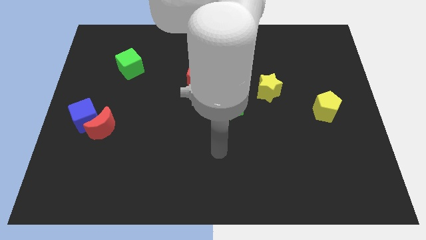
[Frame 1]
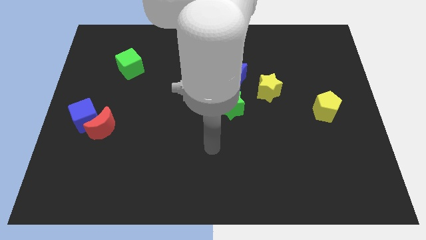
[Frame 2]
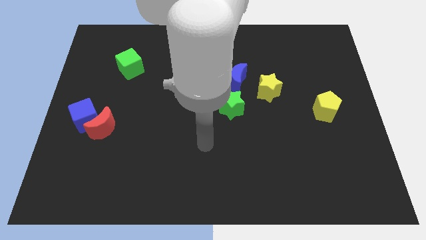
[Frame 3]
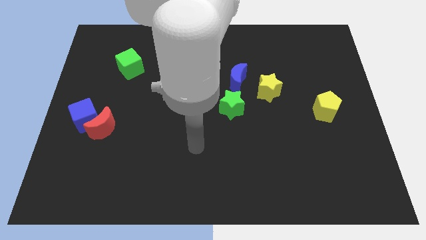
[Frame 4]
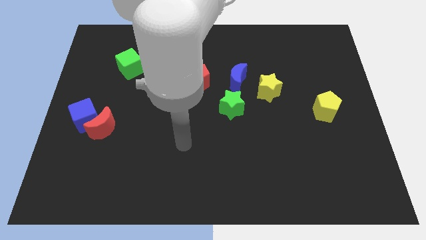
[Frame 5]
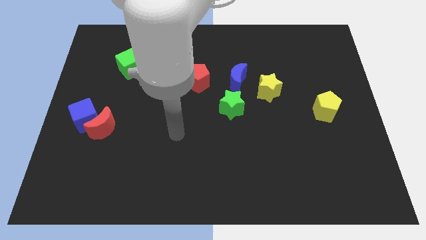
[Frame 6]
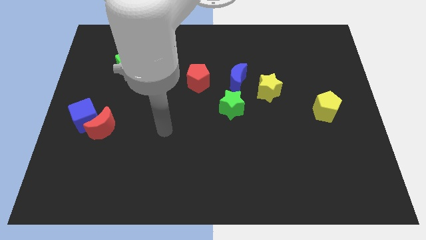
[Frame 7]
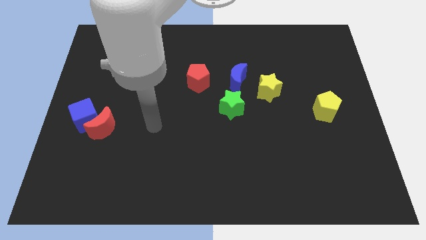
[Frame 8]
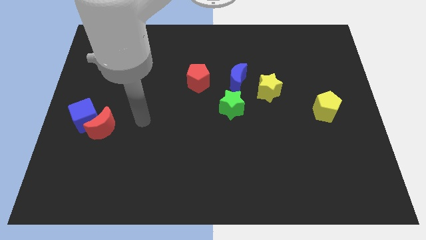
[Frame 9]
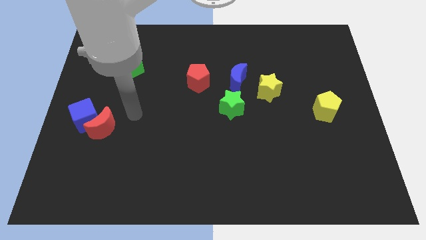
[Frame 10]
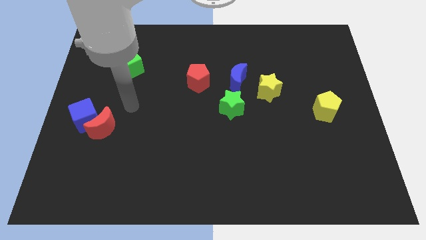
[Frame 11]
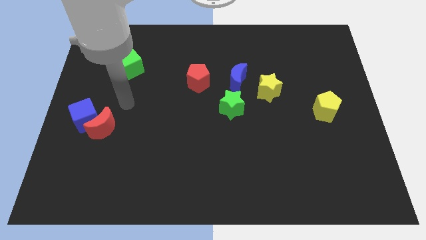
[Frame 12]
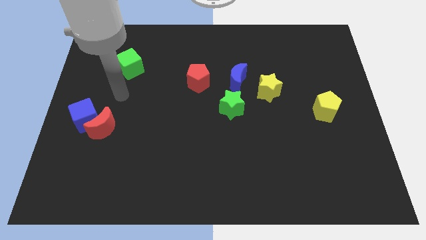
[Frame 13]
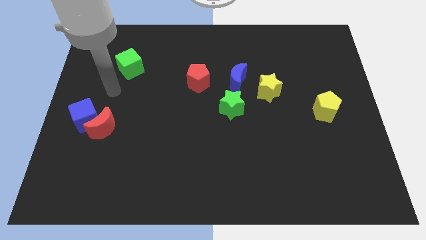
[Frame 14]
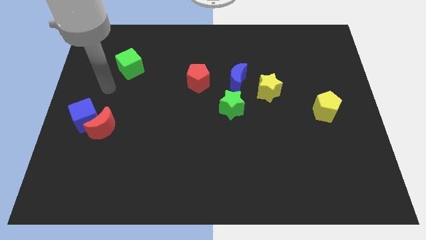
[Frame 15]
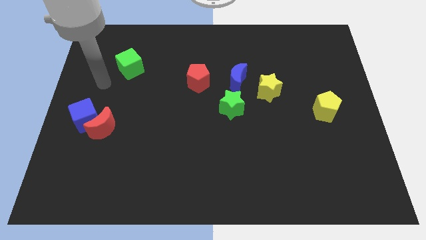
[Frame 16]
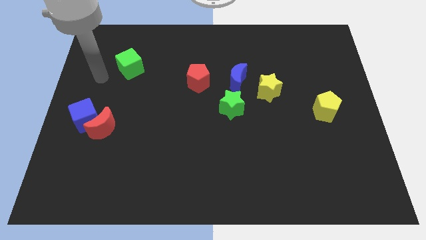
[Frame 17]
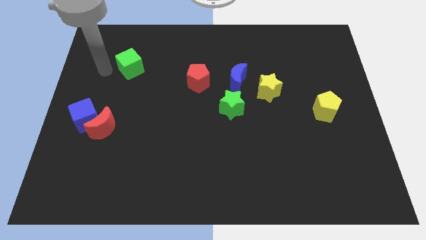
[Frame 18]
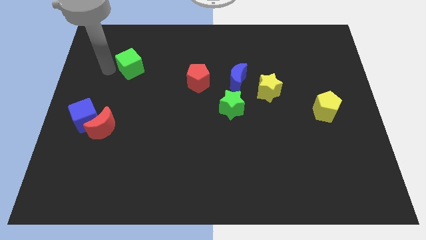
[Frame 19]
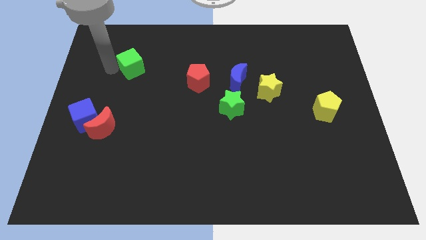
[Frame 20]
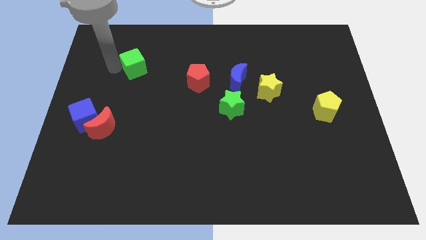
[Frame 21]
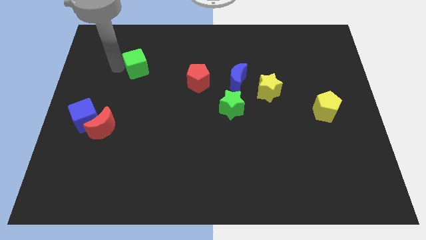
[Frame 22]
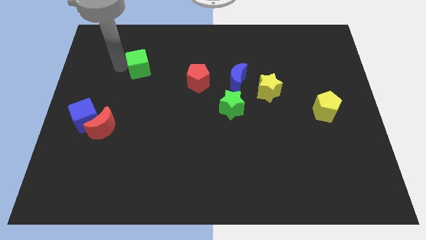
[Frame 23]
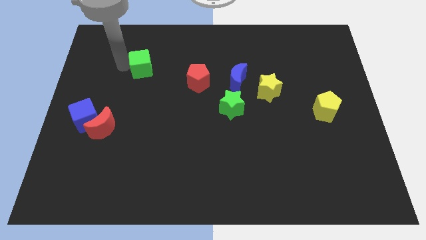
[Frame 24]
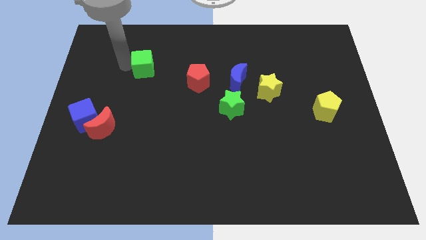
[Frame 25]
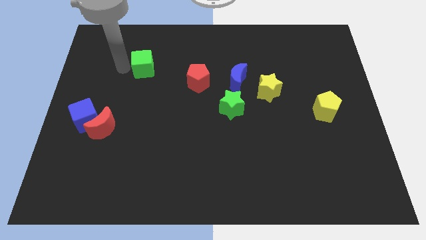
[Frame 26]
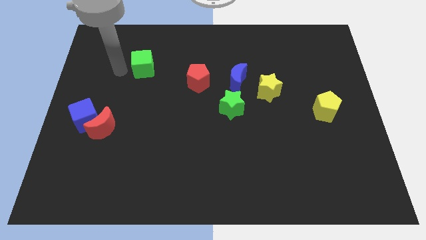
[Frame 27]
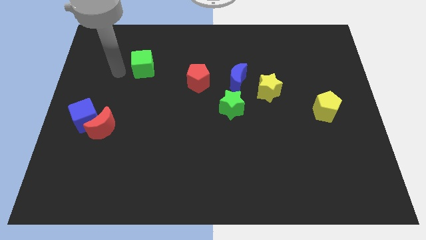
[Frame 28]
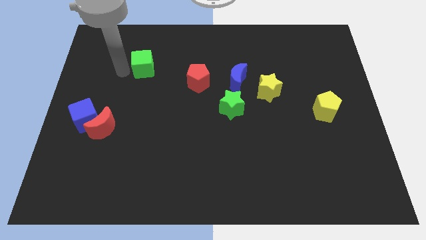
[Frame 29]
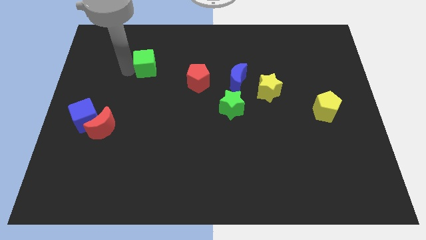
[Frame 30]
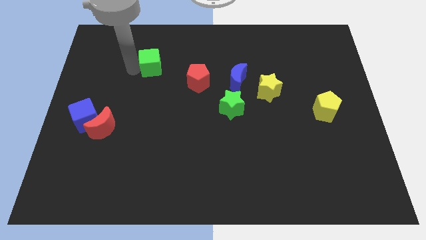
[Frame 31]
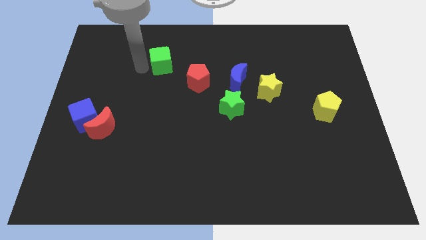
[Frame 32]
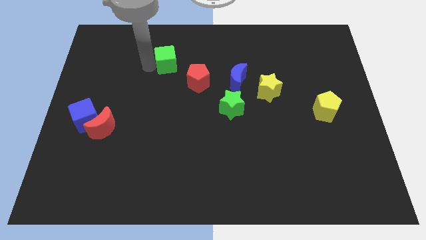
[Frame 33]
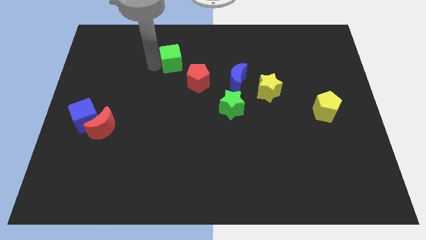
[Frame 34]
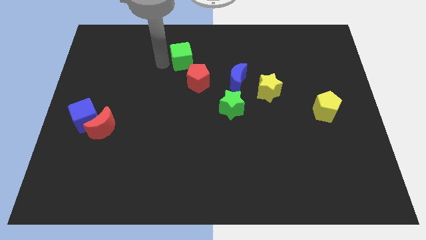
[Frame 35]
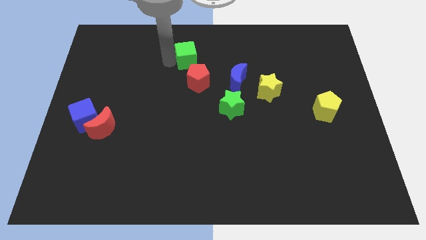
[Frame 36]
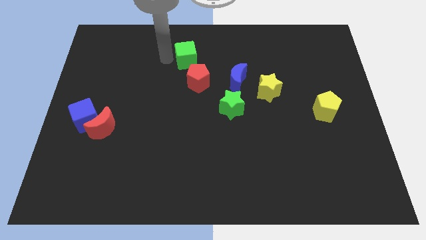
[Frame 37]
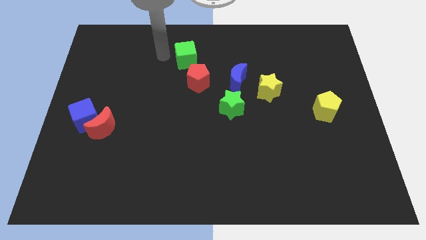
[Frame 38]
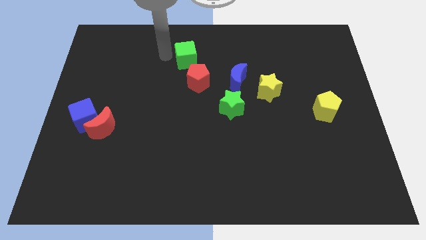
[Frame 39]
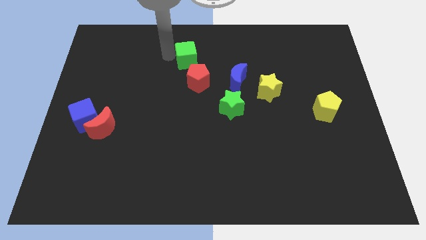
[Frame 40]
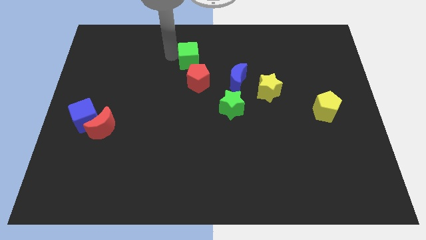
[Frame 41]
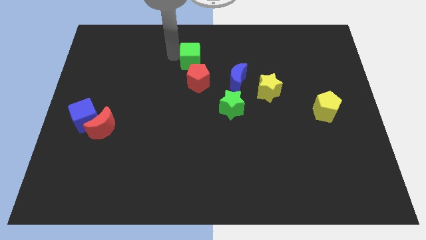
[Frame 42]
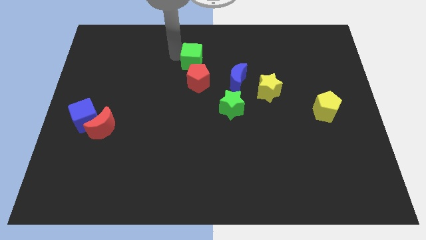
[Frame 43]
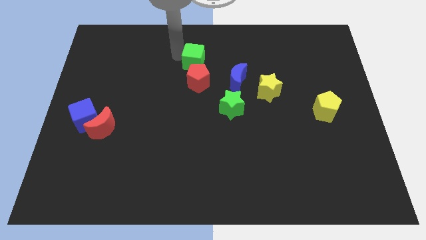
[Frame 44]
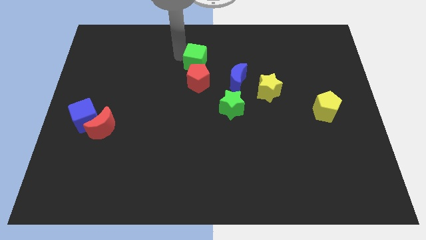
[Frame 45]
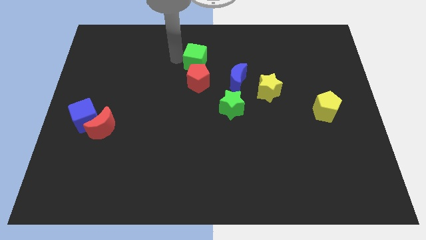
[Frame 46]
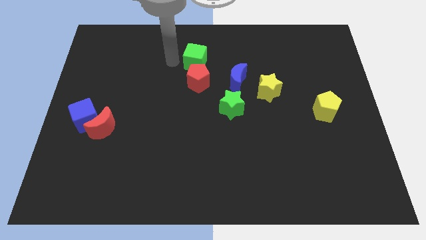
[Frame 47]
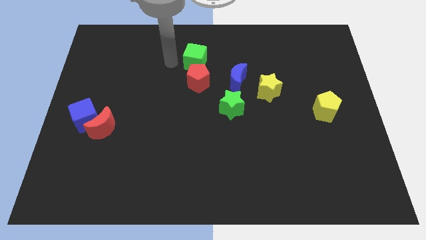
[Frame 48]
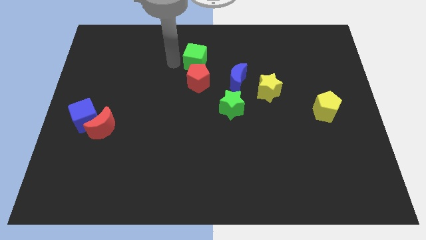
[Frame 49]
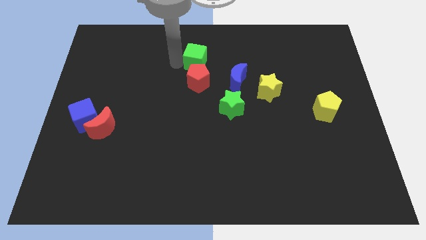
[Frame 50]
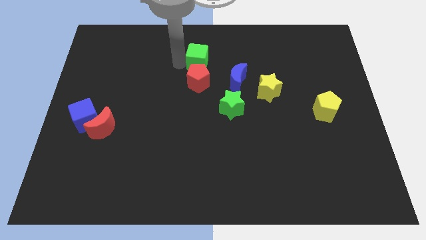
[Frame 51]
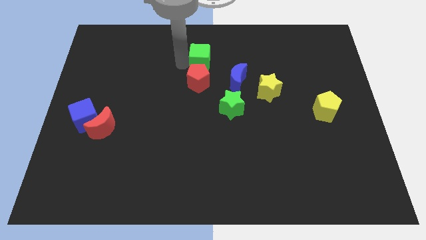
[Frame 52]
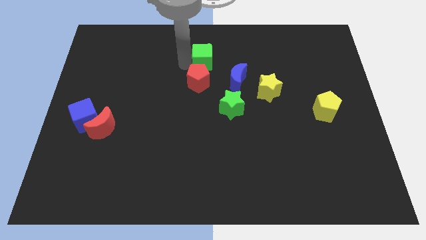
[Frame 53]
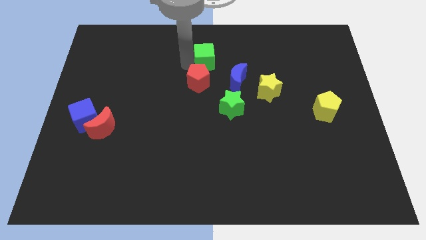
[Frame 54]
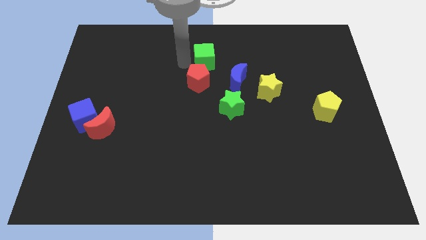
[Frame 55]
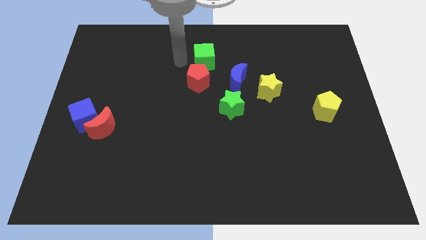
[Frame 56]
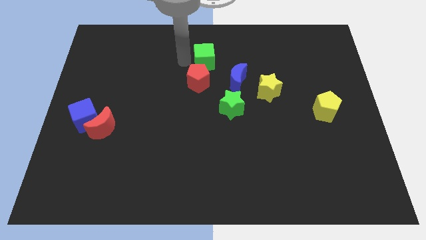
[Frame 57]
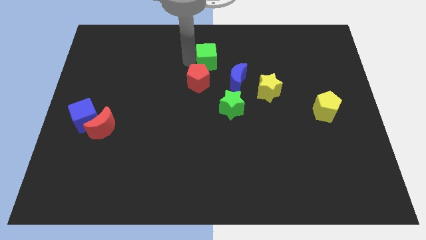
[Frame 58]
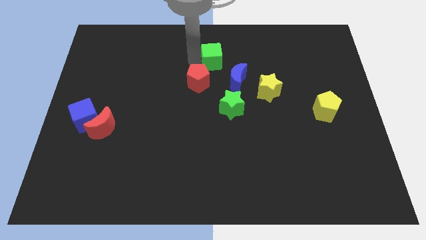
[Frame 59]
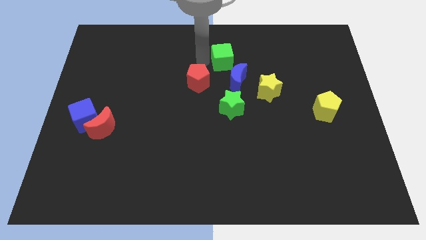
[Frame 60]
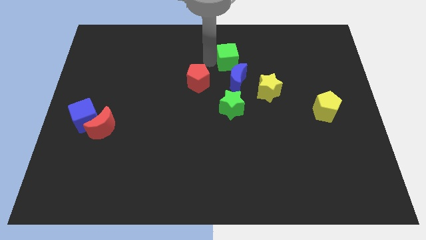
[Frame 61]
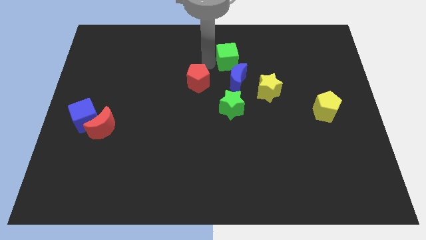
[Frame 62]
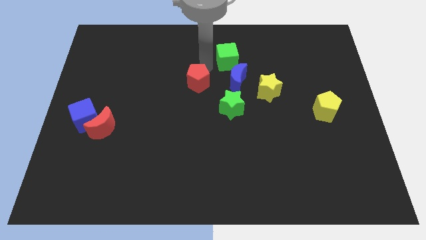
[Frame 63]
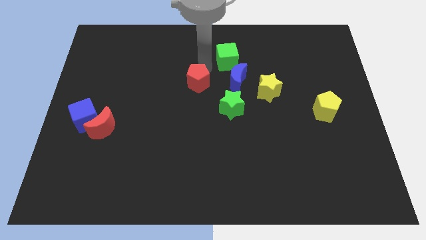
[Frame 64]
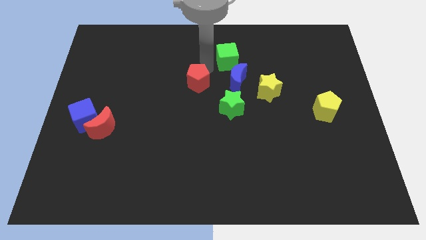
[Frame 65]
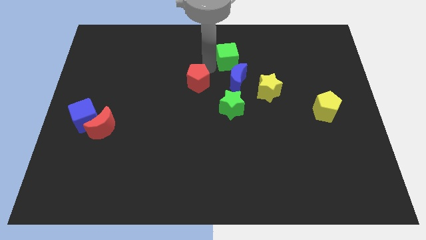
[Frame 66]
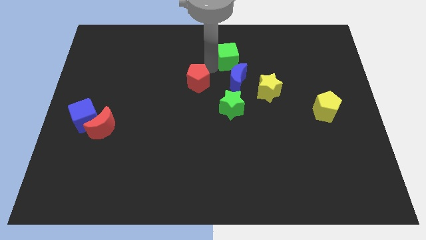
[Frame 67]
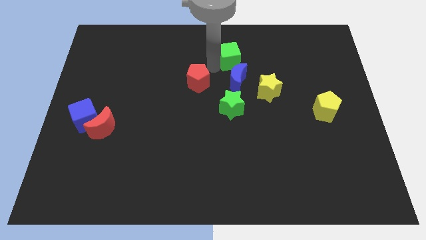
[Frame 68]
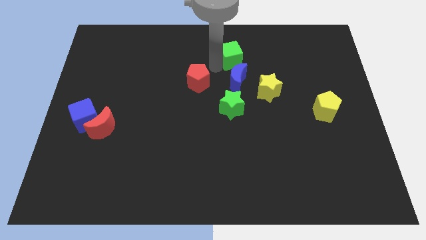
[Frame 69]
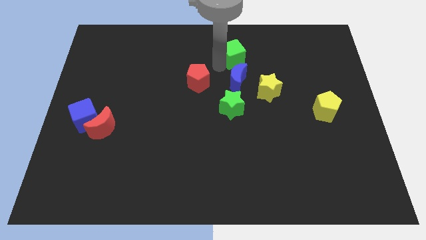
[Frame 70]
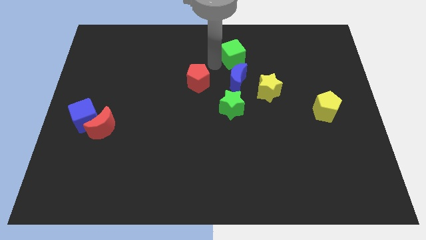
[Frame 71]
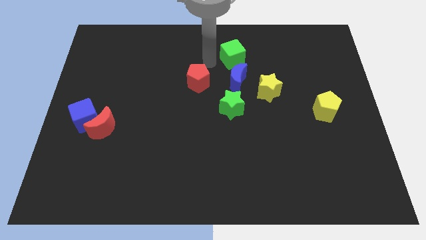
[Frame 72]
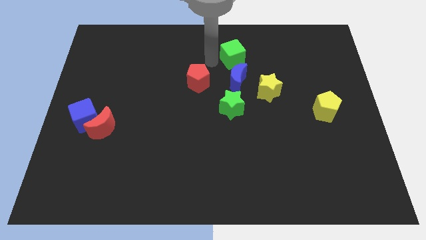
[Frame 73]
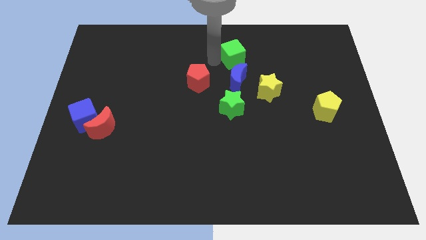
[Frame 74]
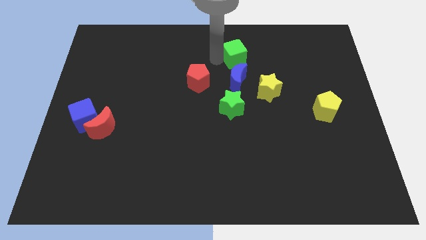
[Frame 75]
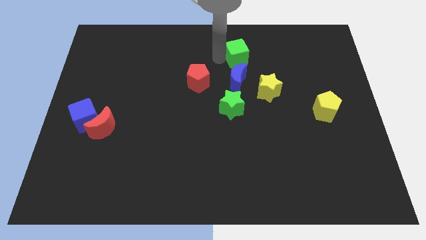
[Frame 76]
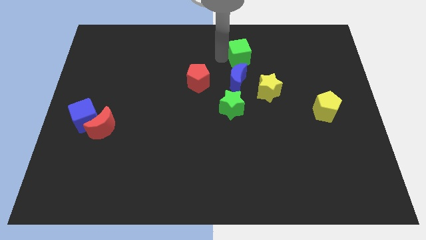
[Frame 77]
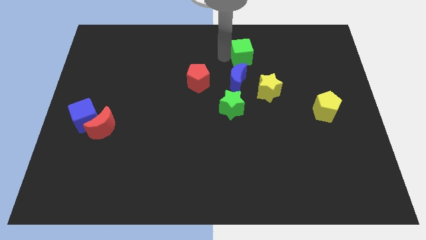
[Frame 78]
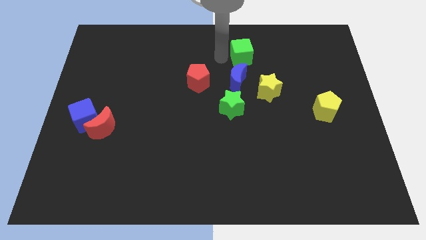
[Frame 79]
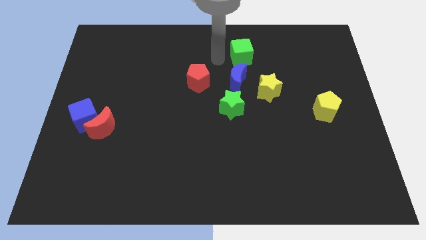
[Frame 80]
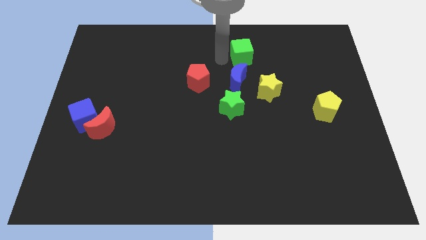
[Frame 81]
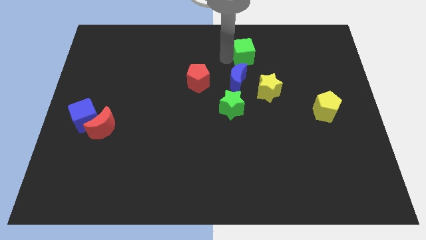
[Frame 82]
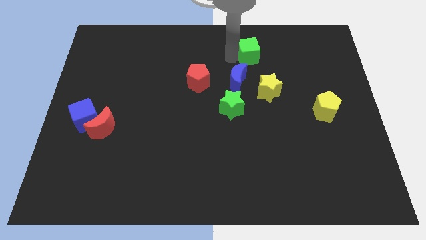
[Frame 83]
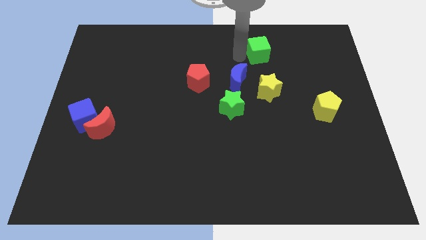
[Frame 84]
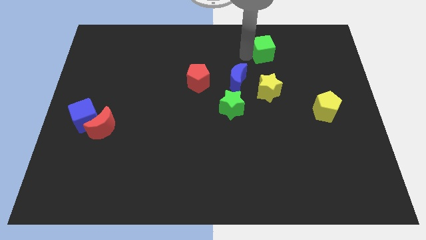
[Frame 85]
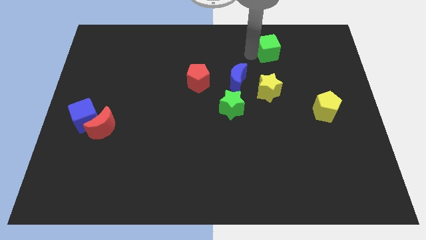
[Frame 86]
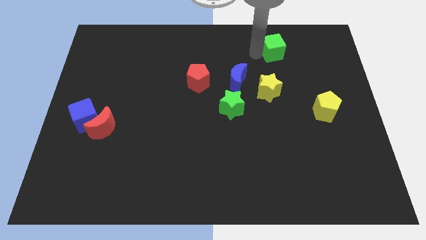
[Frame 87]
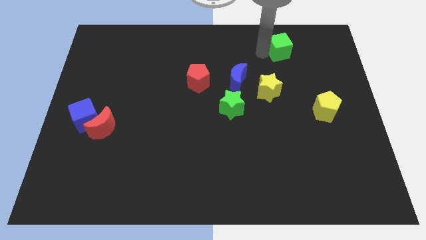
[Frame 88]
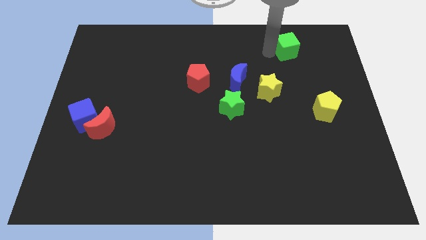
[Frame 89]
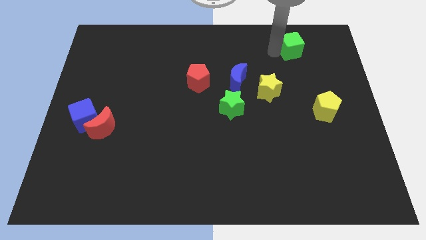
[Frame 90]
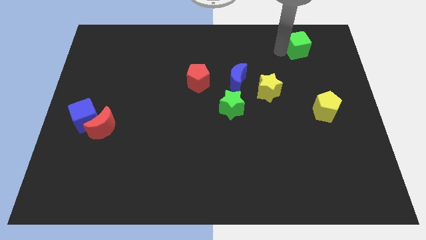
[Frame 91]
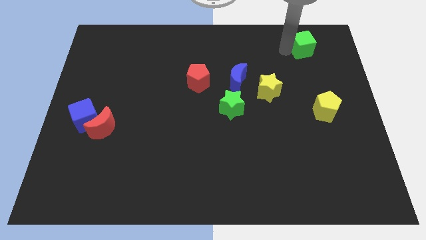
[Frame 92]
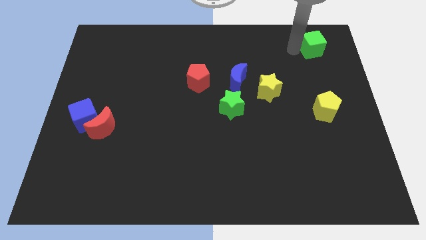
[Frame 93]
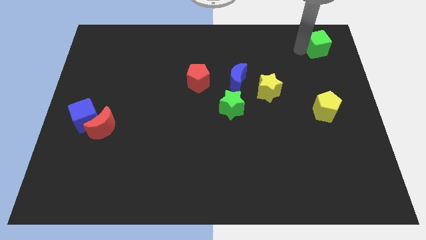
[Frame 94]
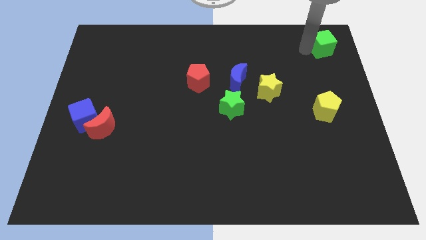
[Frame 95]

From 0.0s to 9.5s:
put the green cube to the top right
